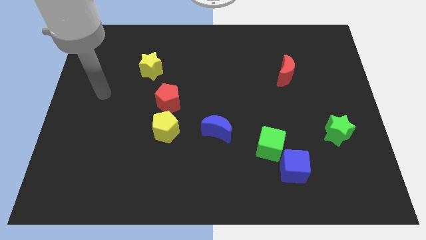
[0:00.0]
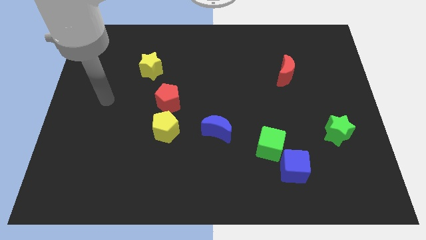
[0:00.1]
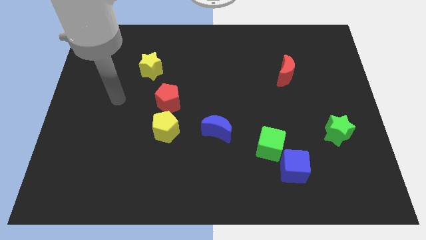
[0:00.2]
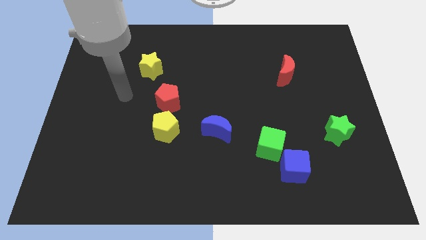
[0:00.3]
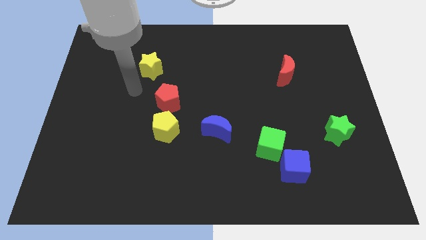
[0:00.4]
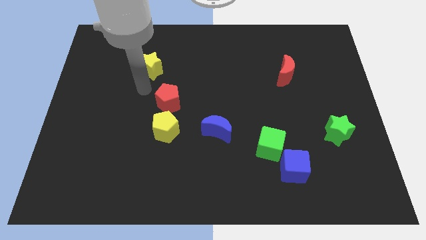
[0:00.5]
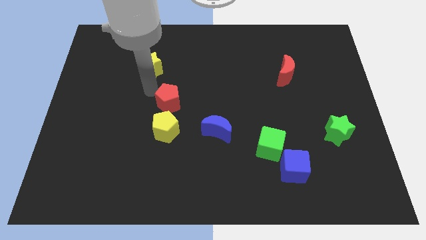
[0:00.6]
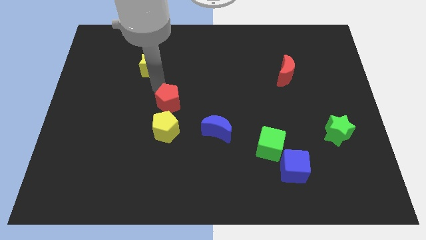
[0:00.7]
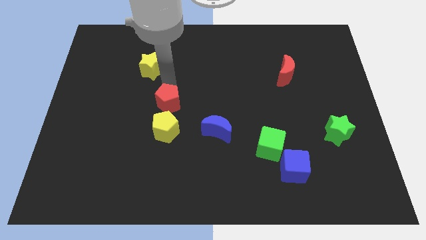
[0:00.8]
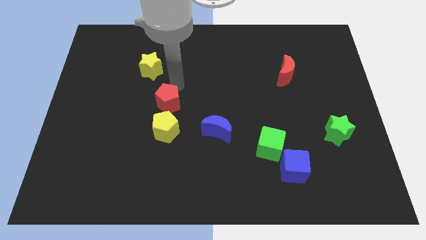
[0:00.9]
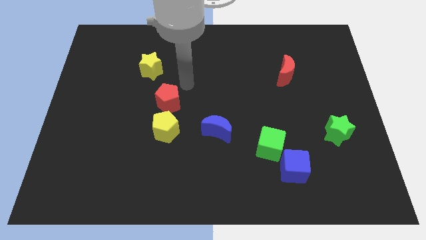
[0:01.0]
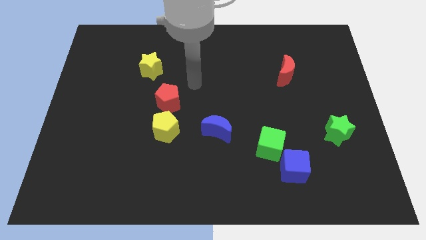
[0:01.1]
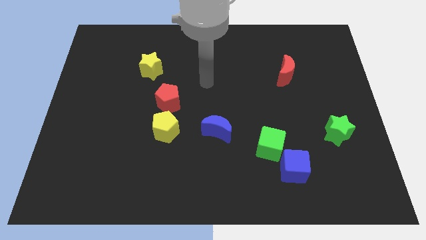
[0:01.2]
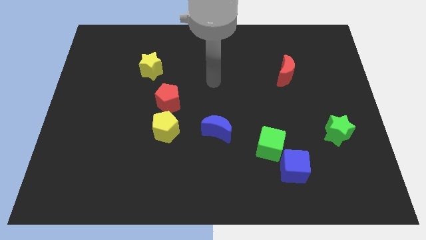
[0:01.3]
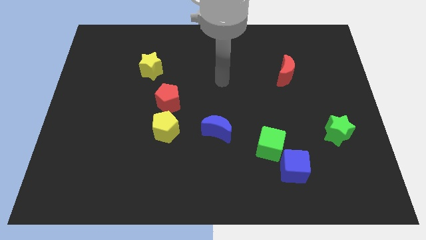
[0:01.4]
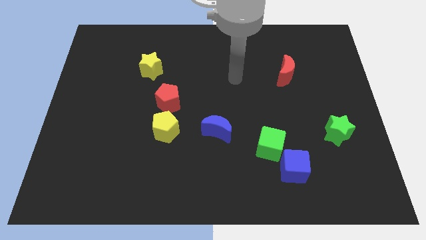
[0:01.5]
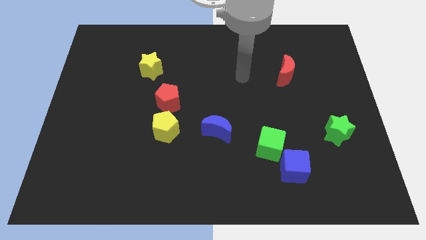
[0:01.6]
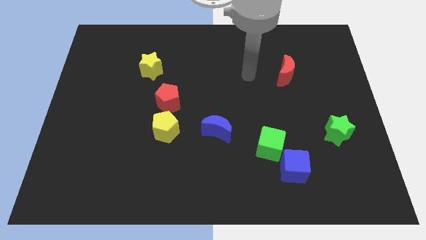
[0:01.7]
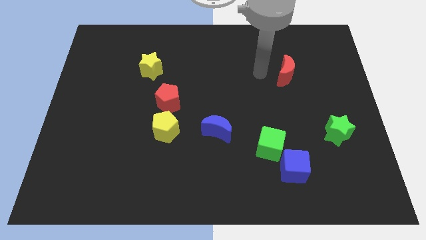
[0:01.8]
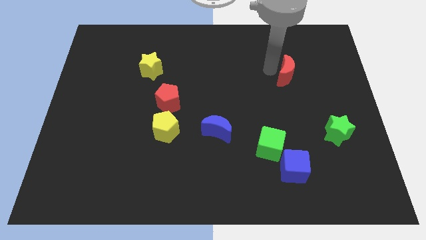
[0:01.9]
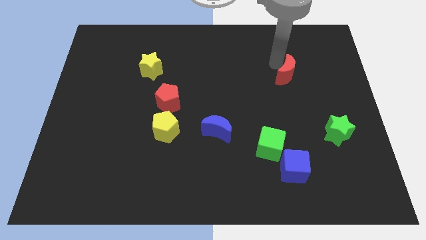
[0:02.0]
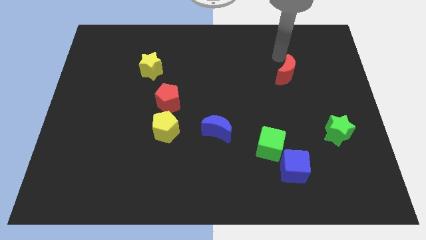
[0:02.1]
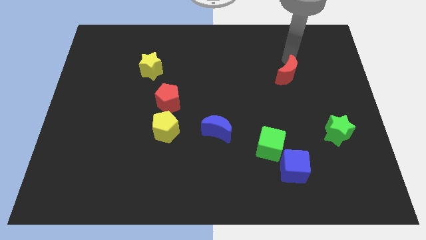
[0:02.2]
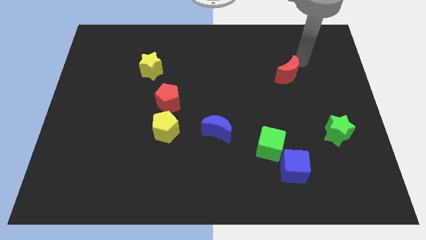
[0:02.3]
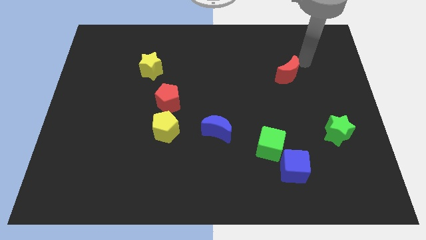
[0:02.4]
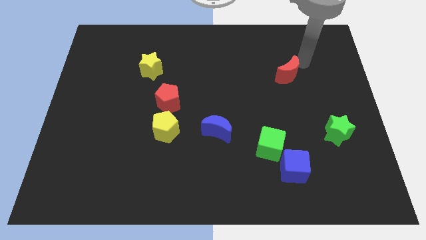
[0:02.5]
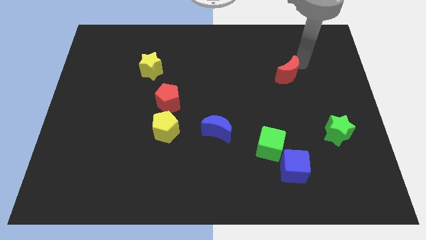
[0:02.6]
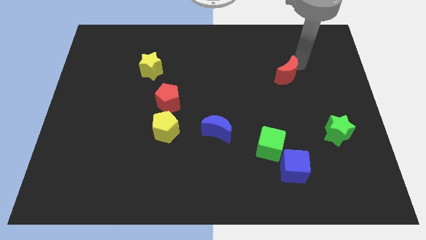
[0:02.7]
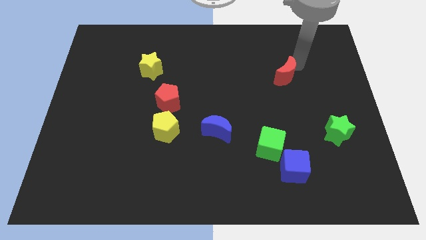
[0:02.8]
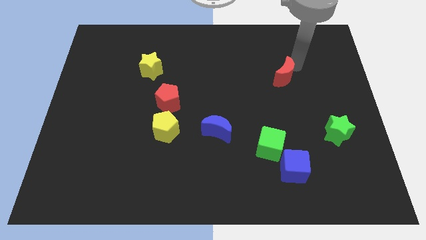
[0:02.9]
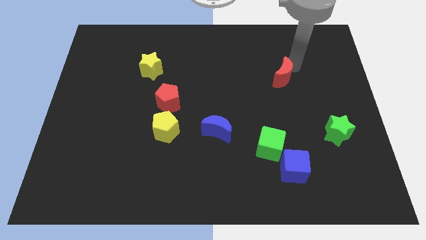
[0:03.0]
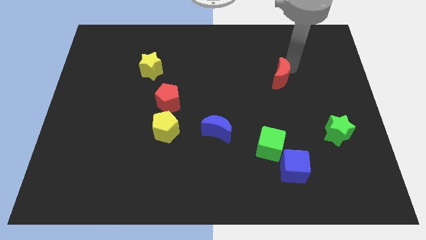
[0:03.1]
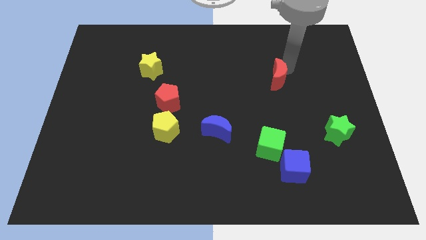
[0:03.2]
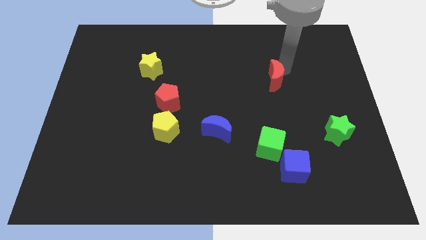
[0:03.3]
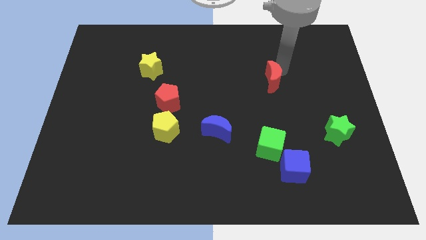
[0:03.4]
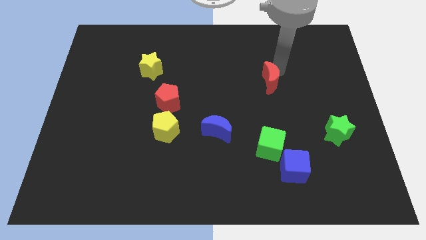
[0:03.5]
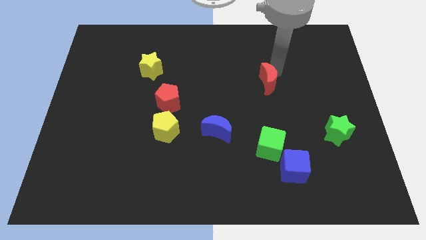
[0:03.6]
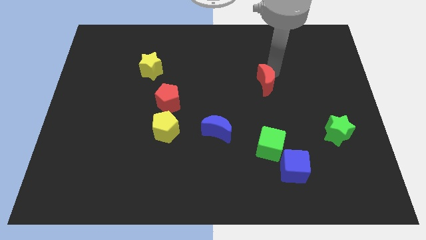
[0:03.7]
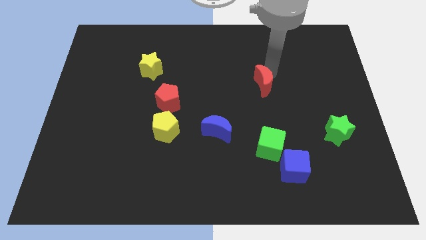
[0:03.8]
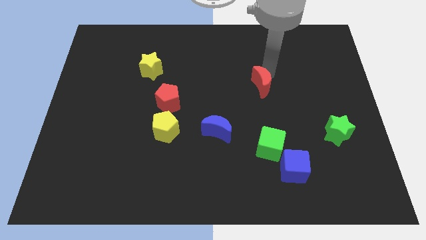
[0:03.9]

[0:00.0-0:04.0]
slide the red moon slightly diagonally down and to the left

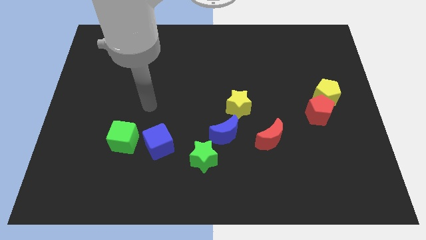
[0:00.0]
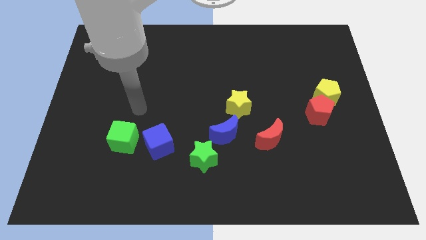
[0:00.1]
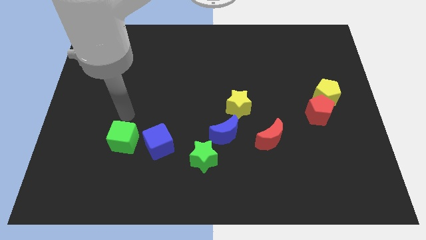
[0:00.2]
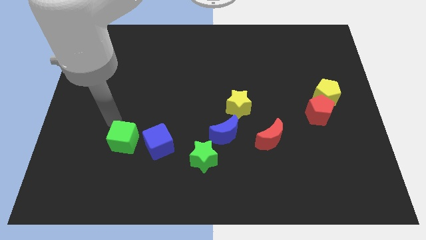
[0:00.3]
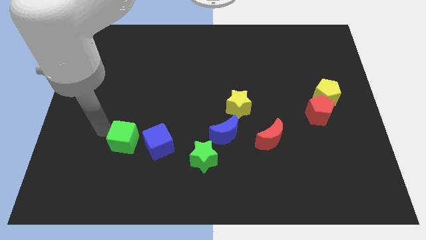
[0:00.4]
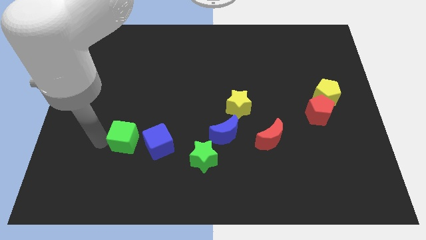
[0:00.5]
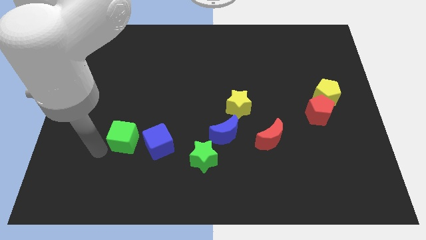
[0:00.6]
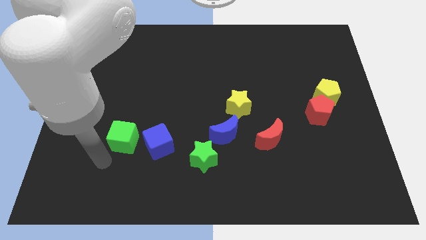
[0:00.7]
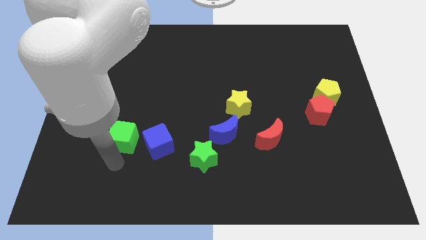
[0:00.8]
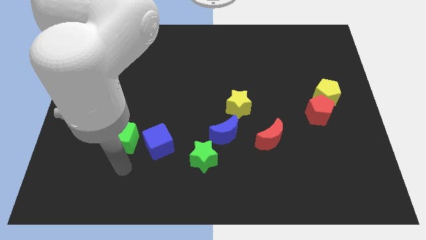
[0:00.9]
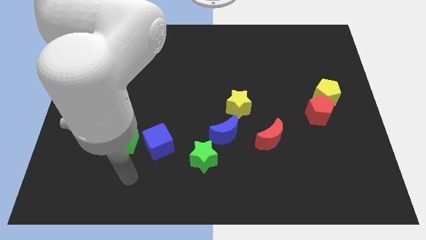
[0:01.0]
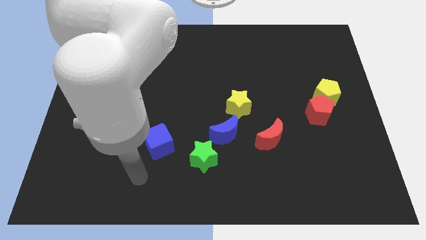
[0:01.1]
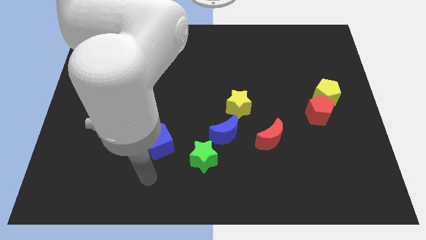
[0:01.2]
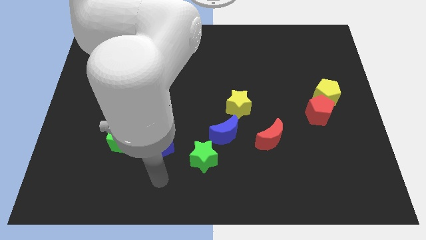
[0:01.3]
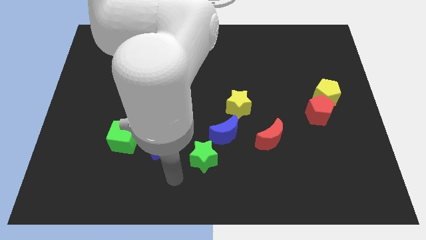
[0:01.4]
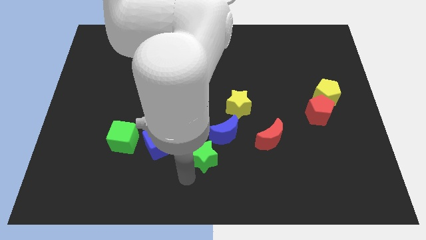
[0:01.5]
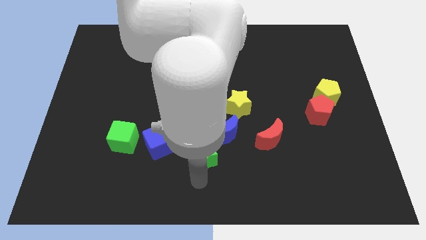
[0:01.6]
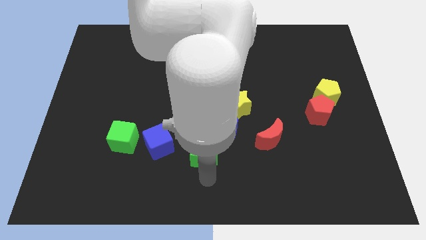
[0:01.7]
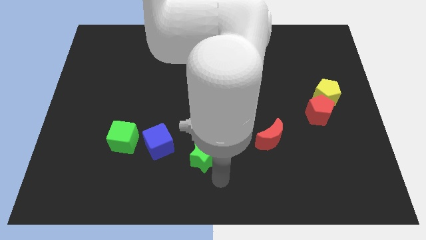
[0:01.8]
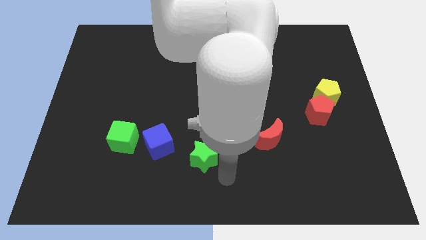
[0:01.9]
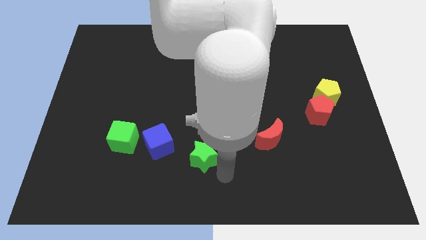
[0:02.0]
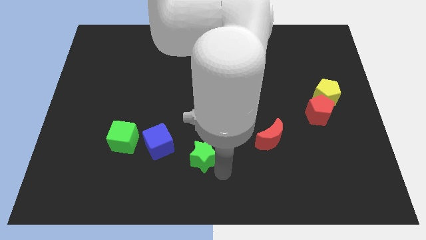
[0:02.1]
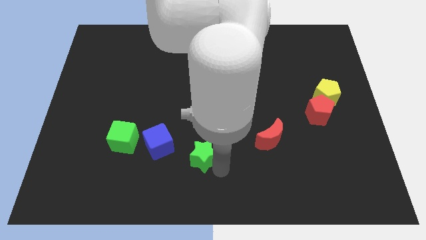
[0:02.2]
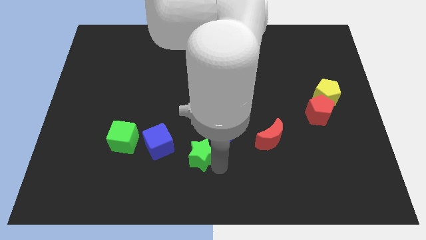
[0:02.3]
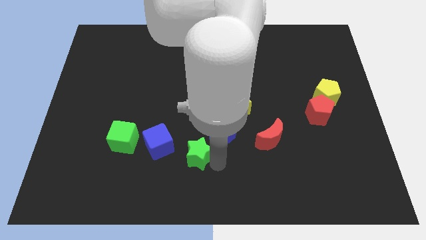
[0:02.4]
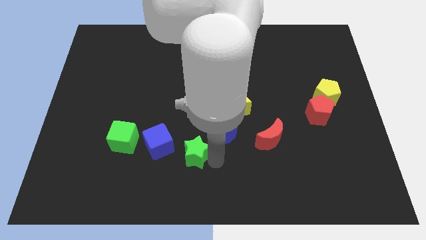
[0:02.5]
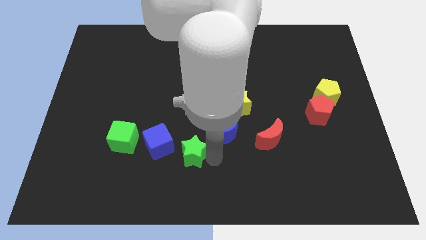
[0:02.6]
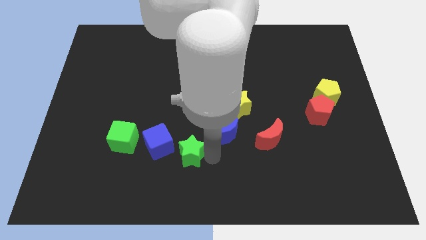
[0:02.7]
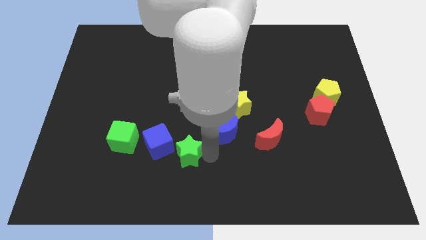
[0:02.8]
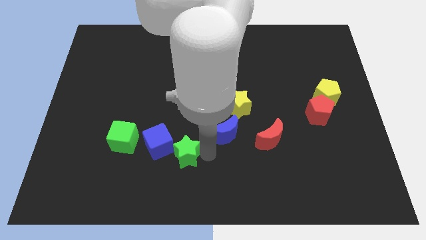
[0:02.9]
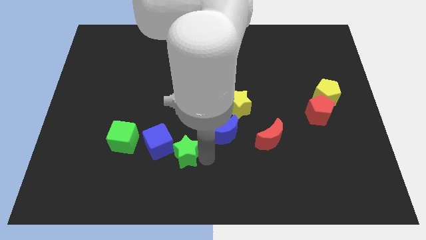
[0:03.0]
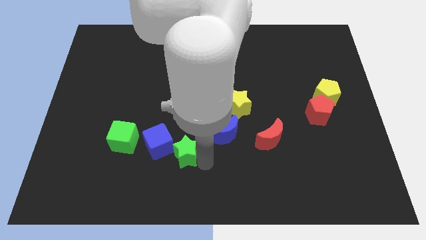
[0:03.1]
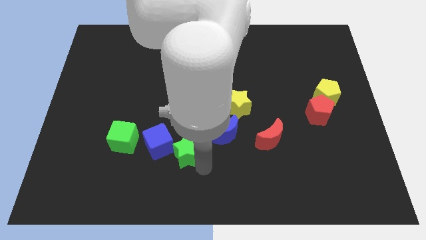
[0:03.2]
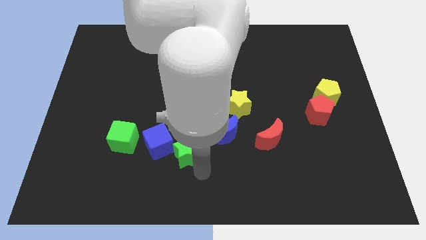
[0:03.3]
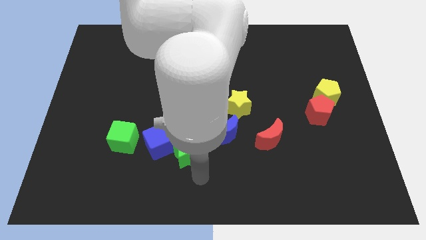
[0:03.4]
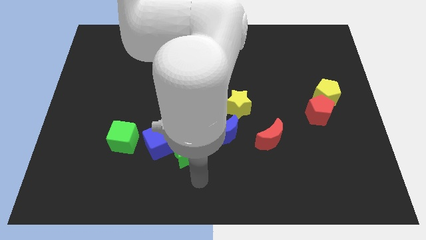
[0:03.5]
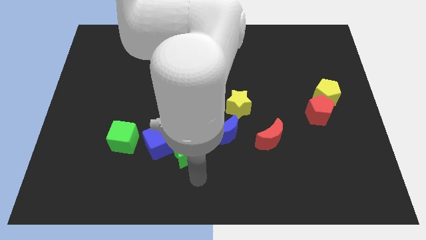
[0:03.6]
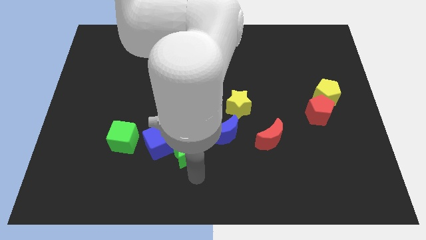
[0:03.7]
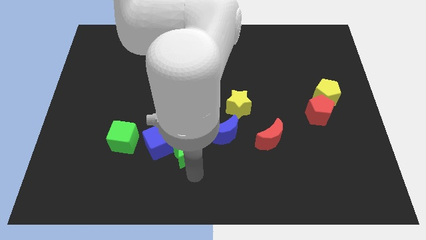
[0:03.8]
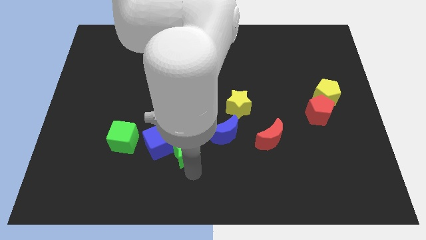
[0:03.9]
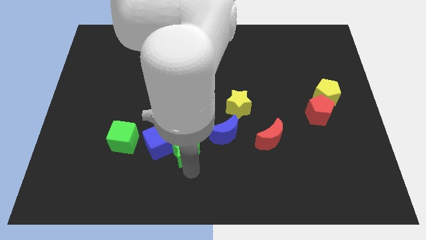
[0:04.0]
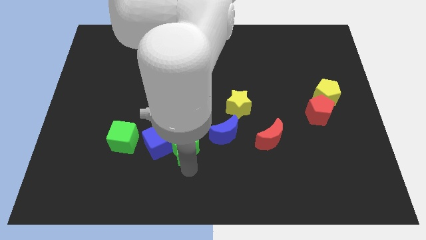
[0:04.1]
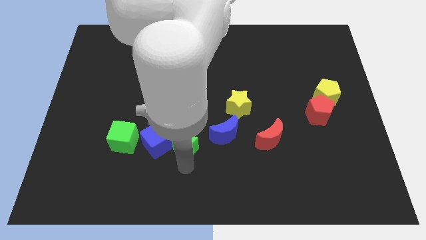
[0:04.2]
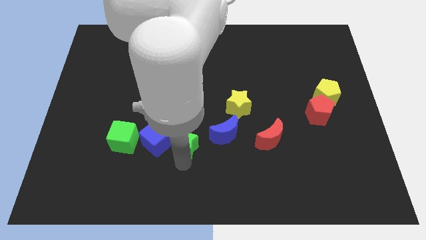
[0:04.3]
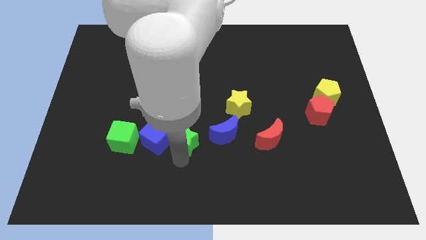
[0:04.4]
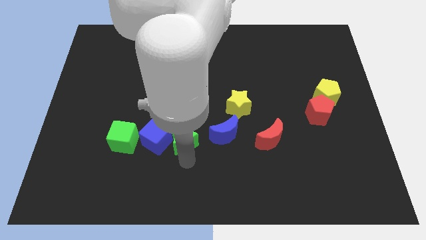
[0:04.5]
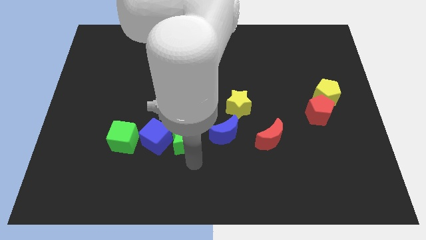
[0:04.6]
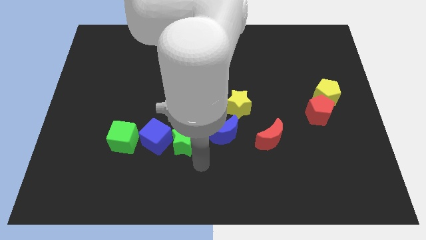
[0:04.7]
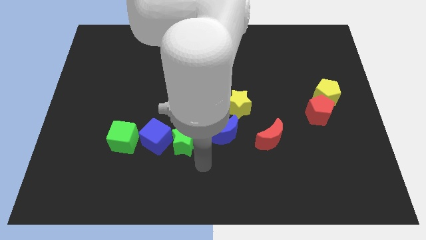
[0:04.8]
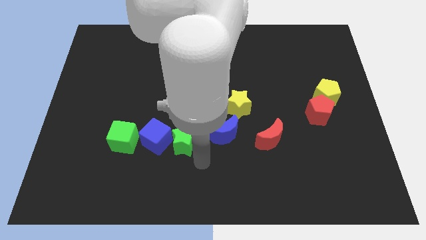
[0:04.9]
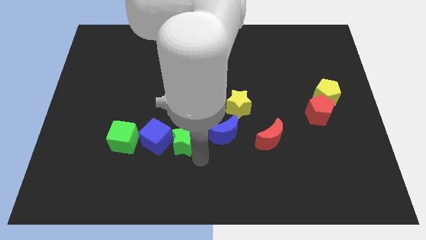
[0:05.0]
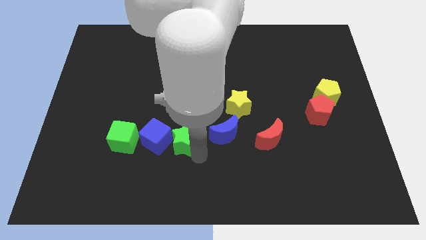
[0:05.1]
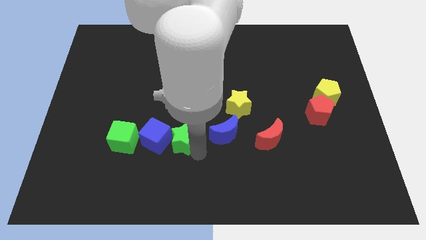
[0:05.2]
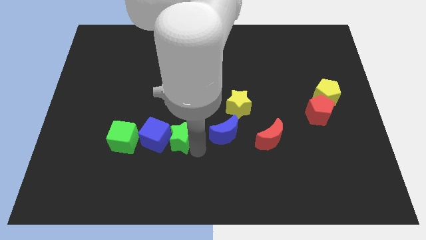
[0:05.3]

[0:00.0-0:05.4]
slide the green star upwards and to the left somewhat
